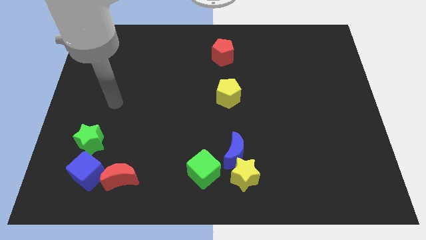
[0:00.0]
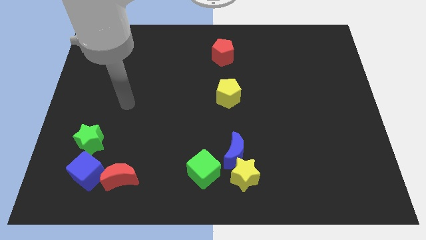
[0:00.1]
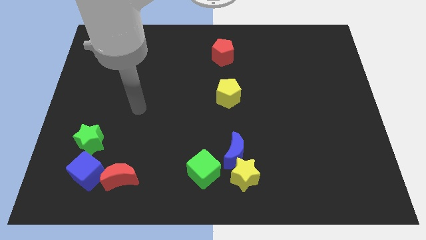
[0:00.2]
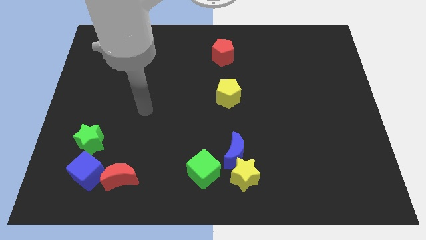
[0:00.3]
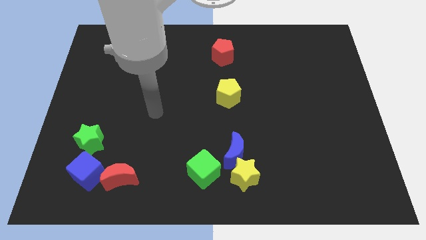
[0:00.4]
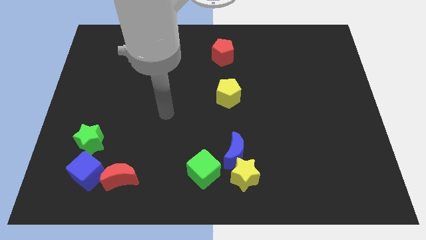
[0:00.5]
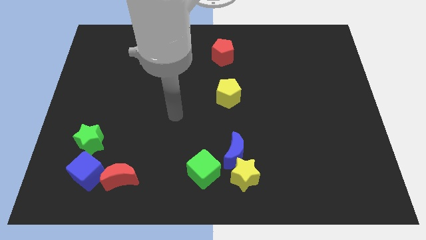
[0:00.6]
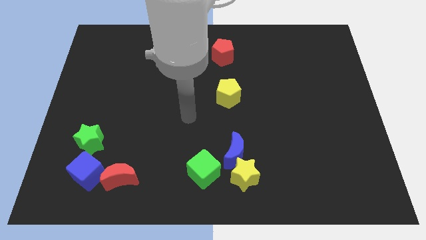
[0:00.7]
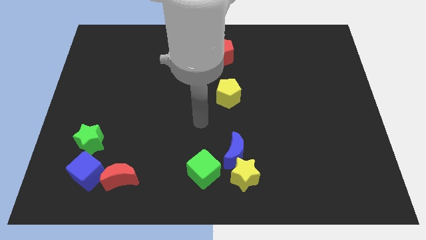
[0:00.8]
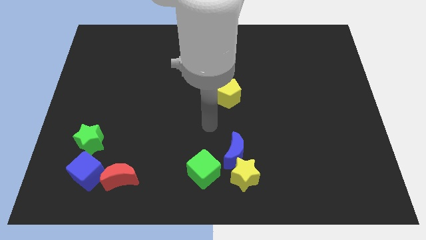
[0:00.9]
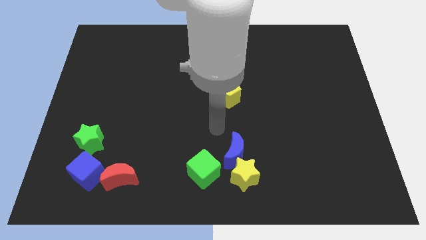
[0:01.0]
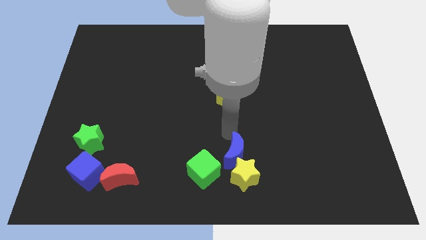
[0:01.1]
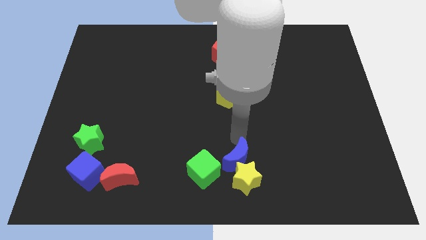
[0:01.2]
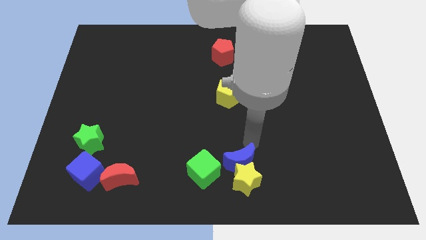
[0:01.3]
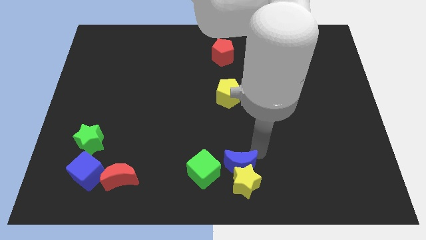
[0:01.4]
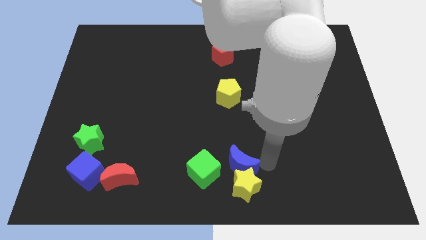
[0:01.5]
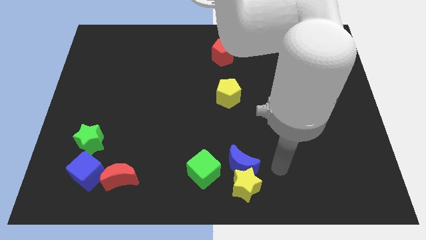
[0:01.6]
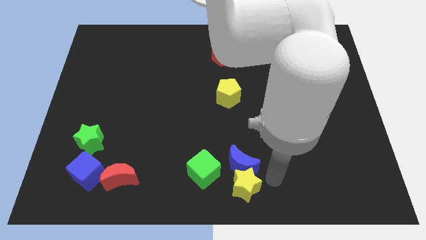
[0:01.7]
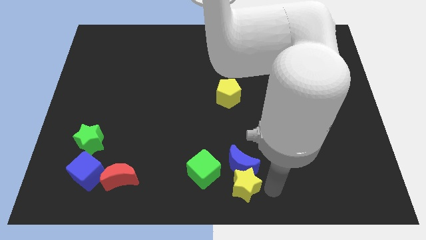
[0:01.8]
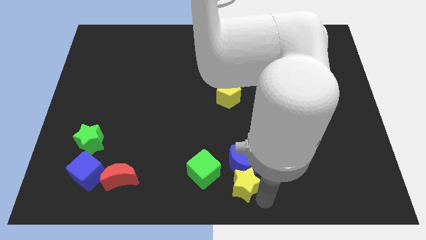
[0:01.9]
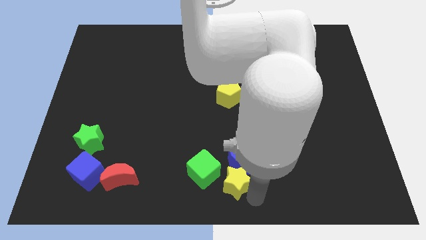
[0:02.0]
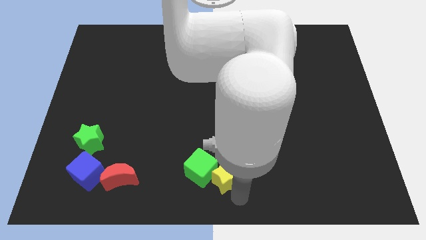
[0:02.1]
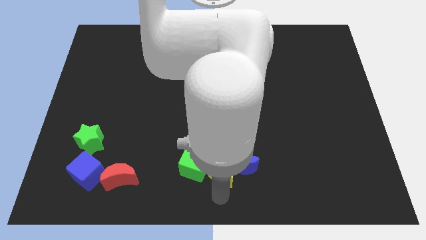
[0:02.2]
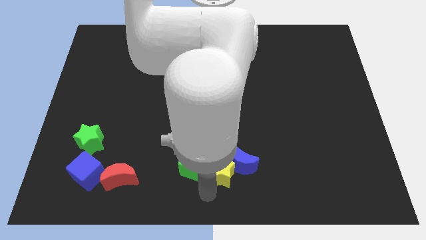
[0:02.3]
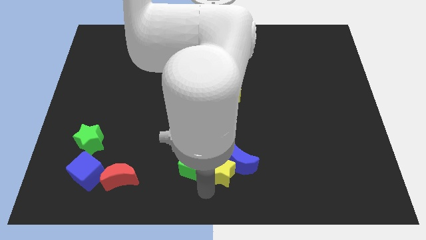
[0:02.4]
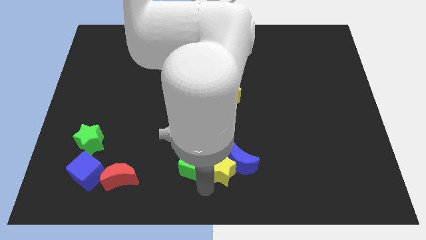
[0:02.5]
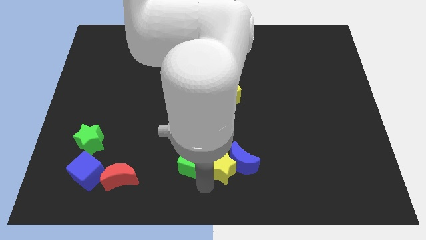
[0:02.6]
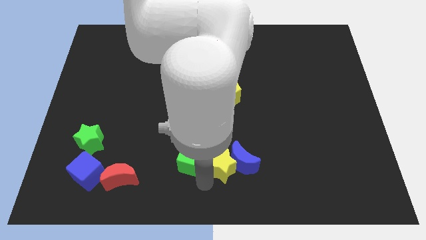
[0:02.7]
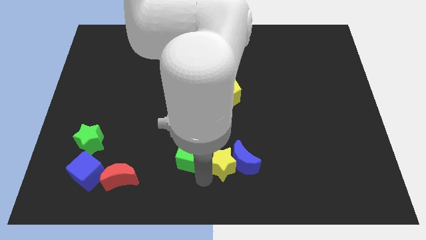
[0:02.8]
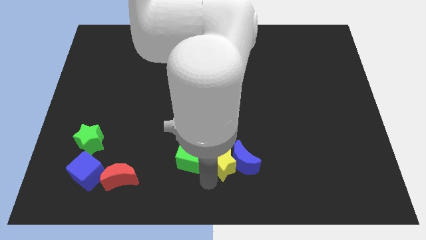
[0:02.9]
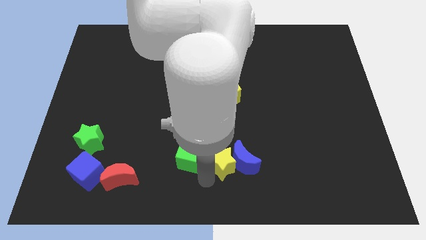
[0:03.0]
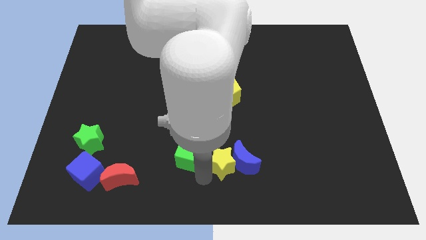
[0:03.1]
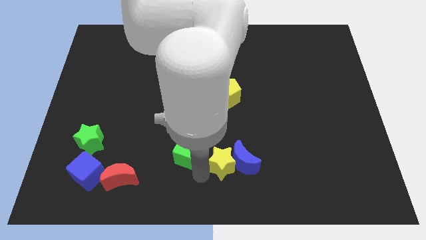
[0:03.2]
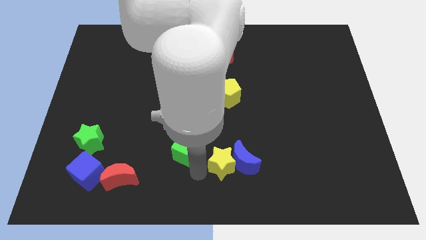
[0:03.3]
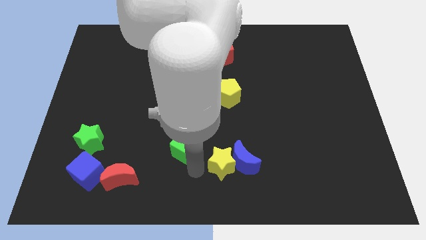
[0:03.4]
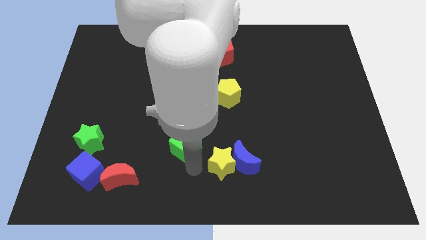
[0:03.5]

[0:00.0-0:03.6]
slide the green cube diagonally upwards and left slightly

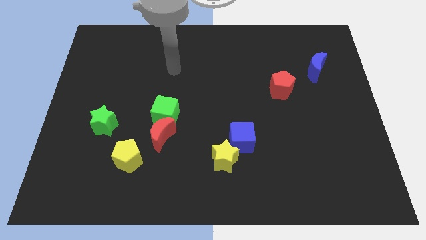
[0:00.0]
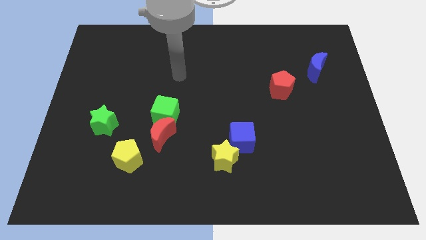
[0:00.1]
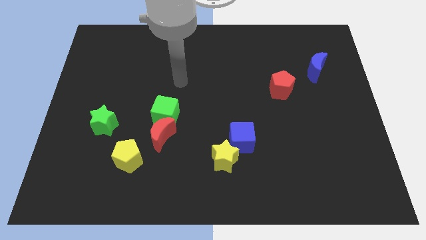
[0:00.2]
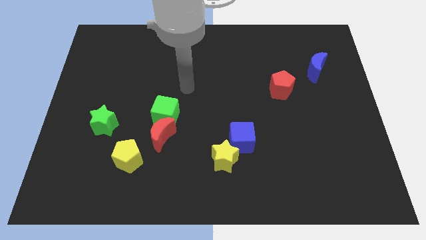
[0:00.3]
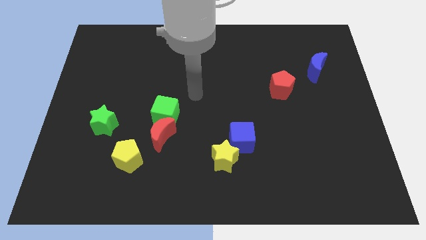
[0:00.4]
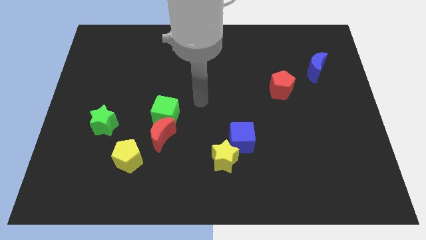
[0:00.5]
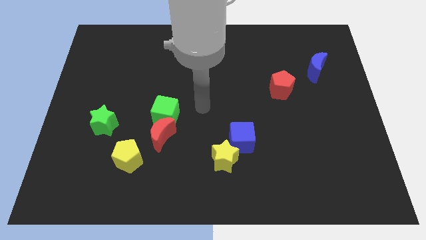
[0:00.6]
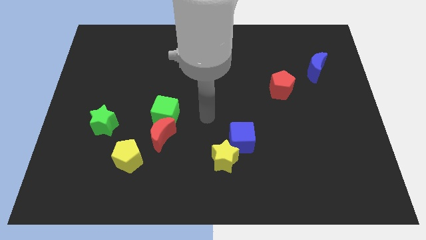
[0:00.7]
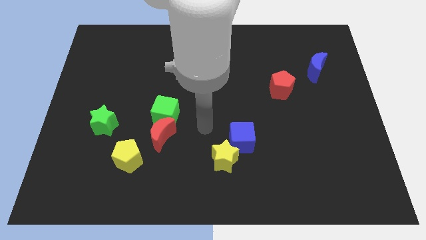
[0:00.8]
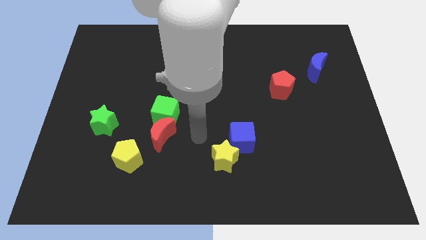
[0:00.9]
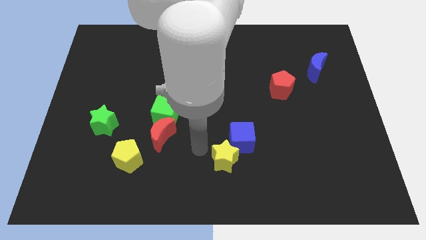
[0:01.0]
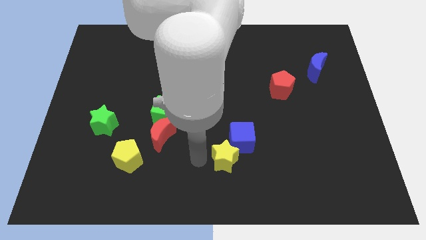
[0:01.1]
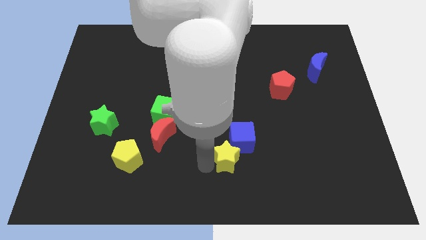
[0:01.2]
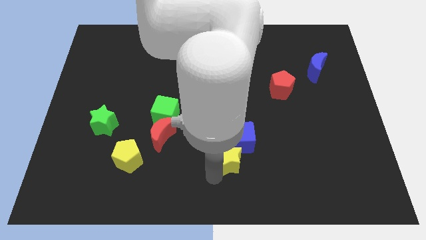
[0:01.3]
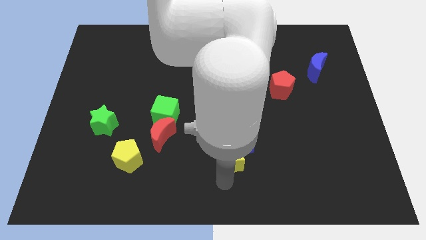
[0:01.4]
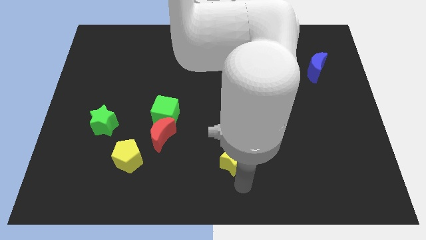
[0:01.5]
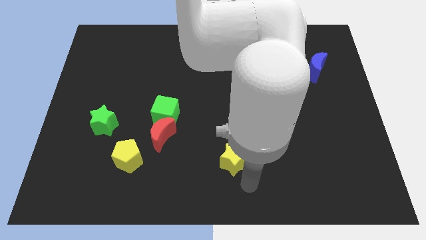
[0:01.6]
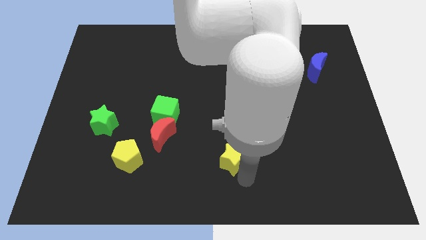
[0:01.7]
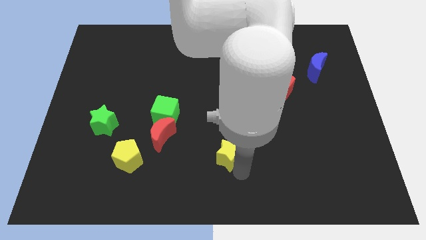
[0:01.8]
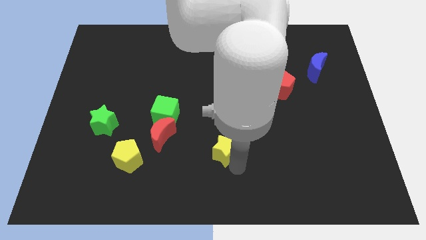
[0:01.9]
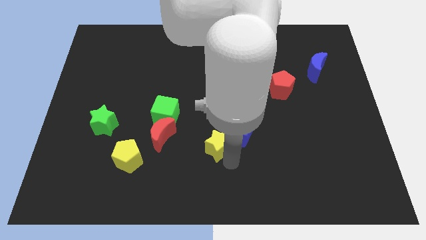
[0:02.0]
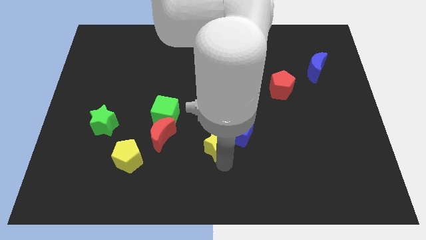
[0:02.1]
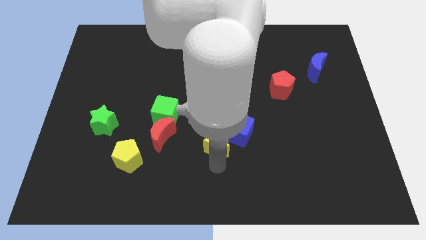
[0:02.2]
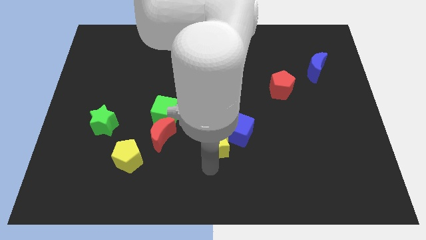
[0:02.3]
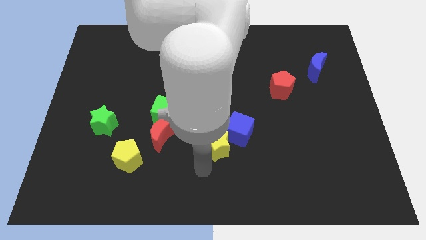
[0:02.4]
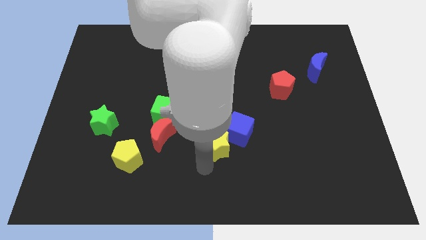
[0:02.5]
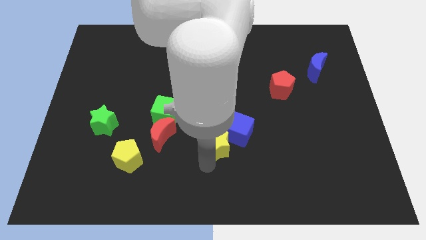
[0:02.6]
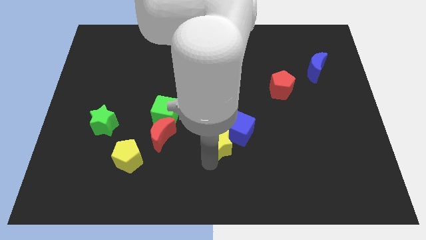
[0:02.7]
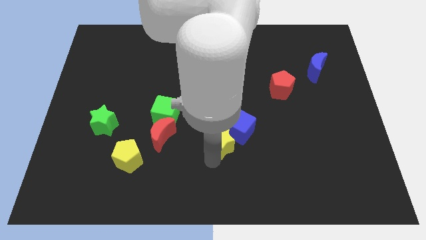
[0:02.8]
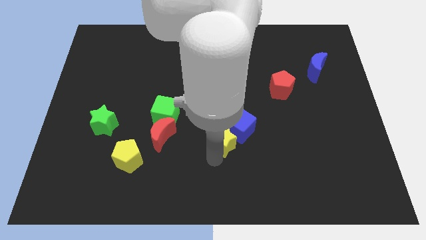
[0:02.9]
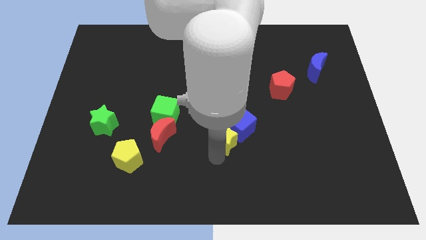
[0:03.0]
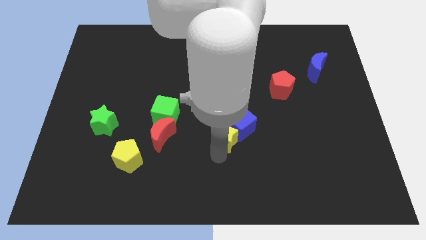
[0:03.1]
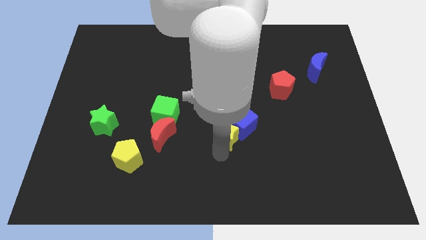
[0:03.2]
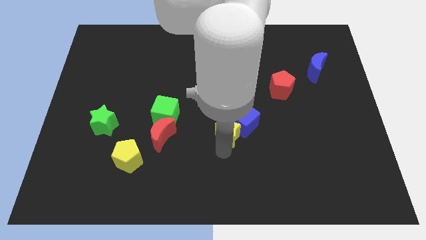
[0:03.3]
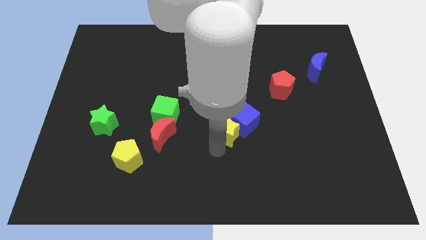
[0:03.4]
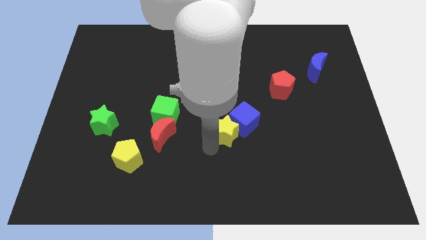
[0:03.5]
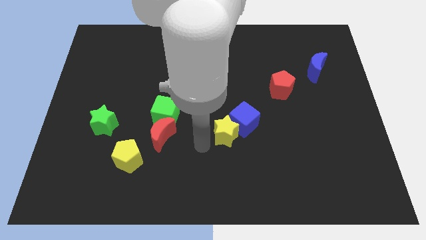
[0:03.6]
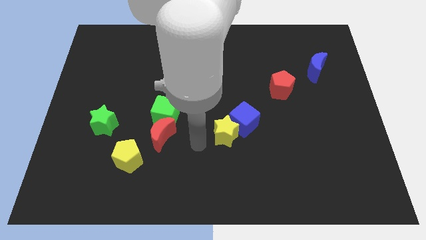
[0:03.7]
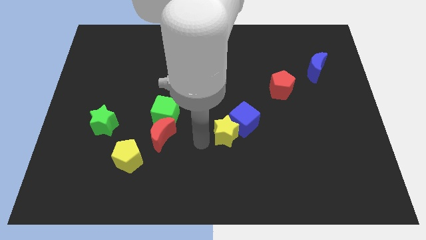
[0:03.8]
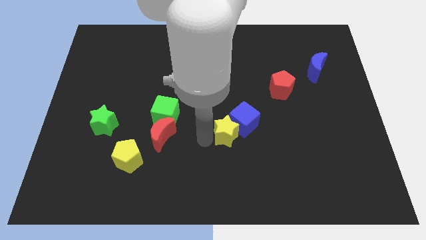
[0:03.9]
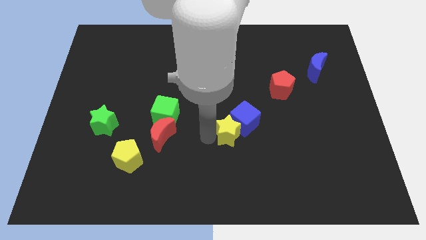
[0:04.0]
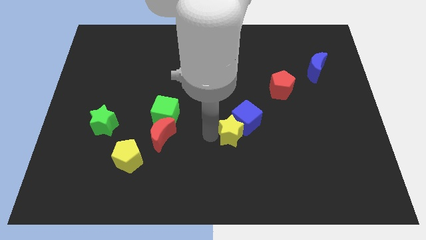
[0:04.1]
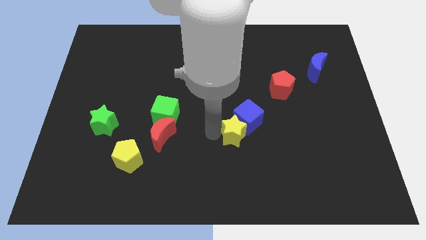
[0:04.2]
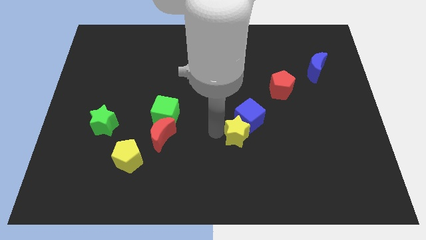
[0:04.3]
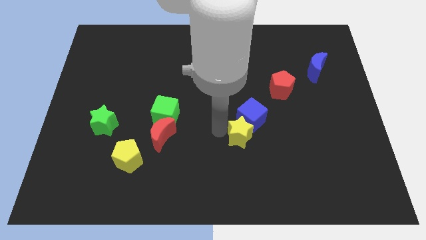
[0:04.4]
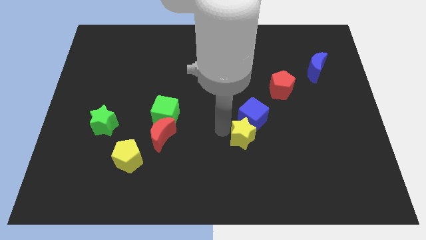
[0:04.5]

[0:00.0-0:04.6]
slightly push the yellow star upwards and right
